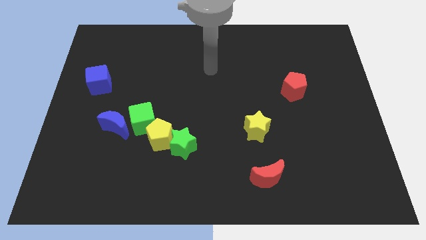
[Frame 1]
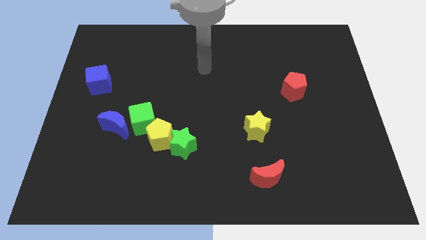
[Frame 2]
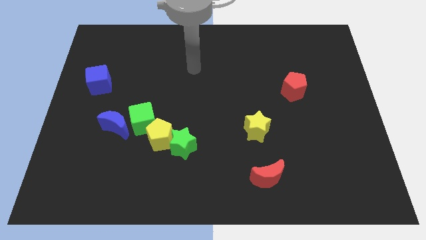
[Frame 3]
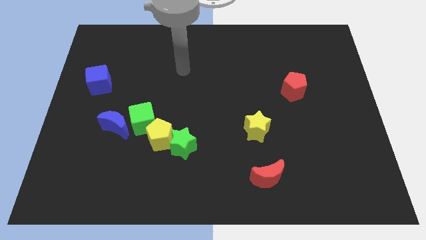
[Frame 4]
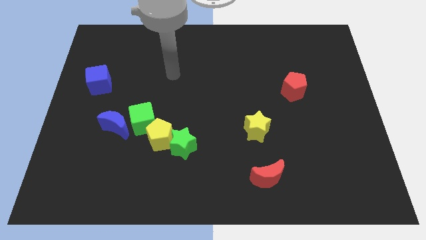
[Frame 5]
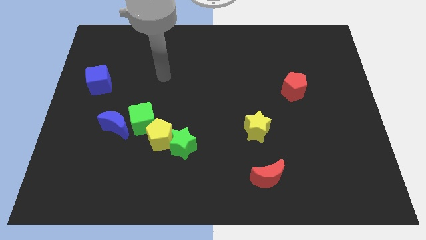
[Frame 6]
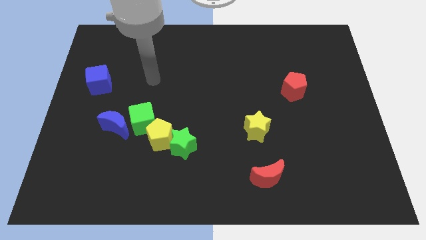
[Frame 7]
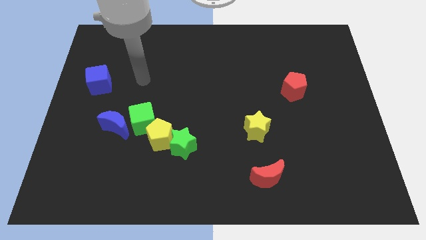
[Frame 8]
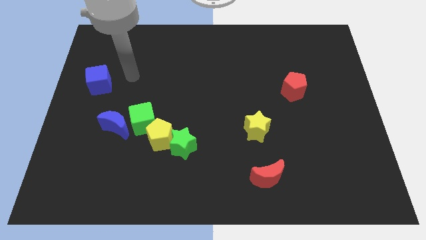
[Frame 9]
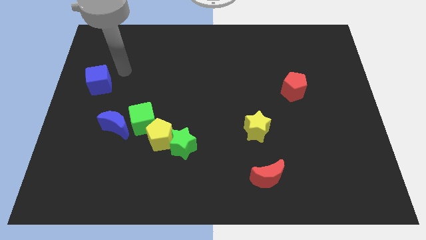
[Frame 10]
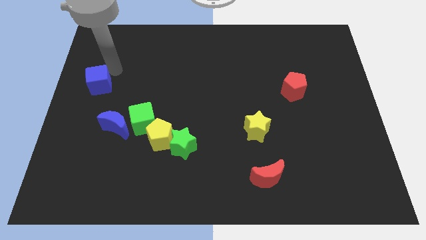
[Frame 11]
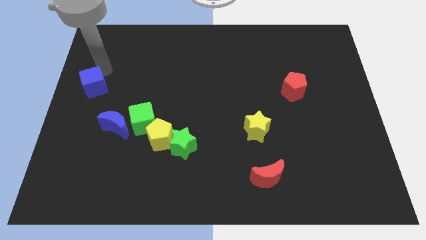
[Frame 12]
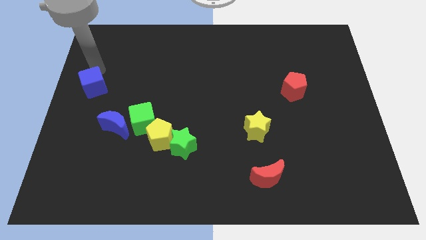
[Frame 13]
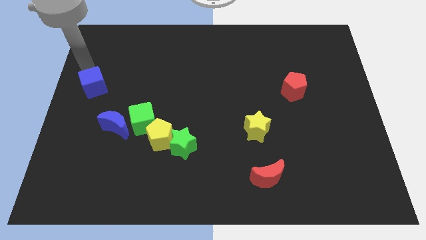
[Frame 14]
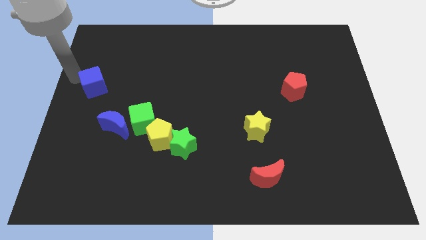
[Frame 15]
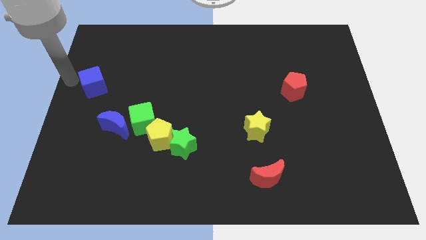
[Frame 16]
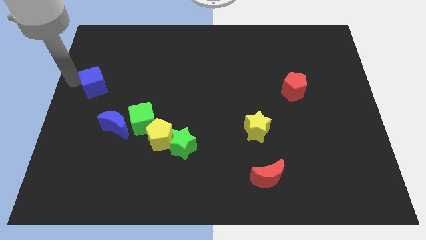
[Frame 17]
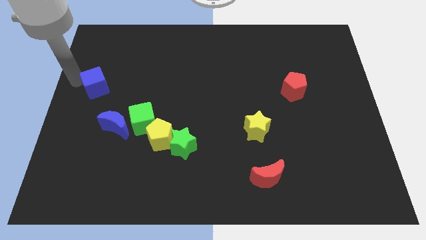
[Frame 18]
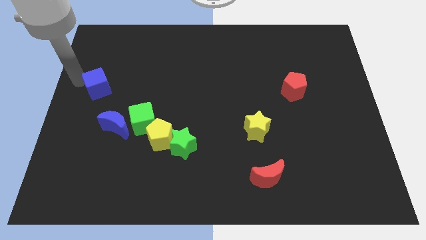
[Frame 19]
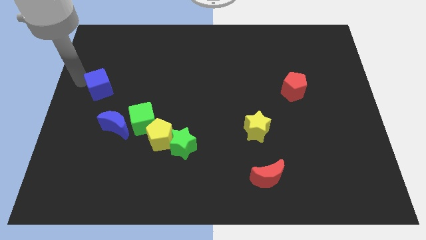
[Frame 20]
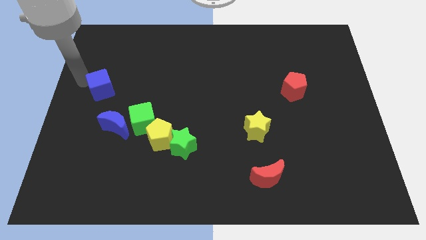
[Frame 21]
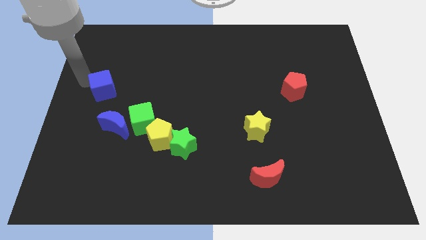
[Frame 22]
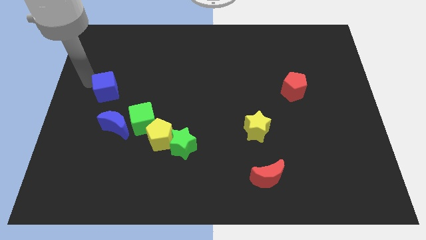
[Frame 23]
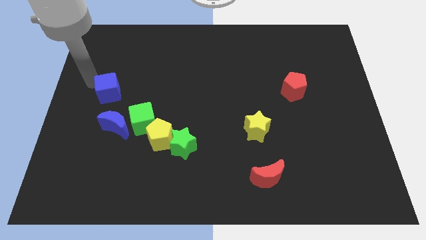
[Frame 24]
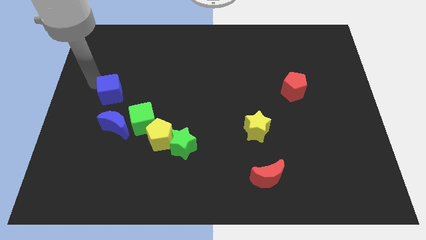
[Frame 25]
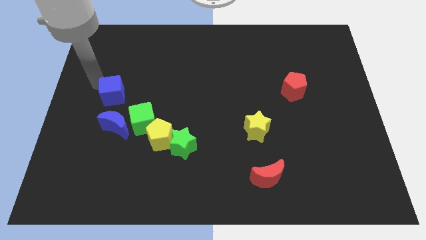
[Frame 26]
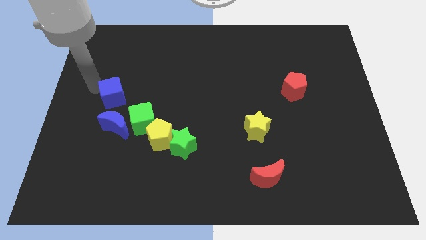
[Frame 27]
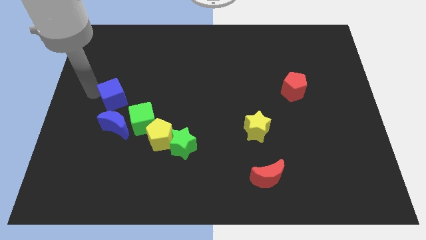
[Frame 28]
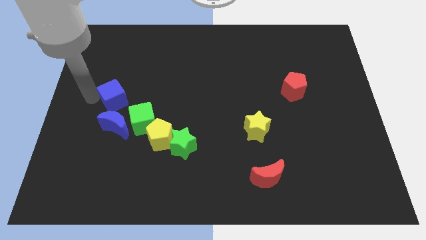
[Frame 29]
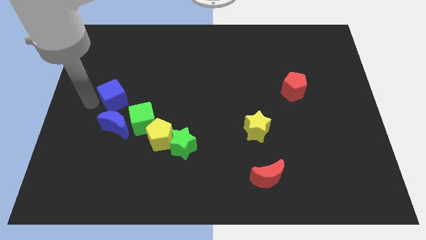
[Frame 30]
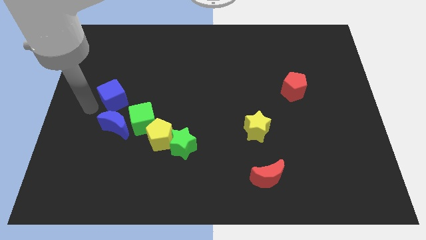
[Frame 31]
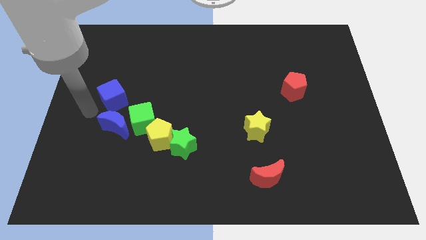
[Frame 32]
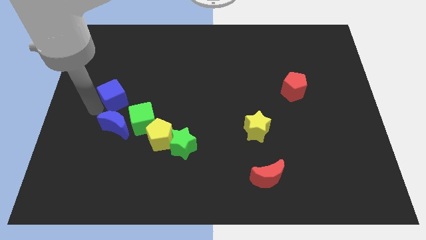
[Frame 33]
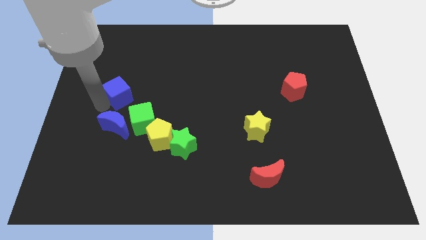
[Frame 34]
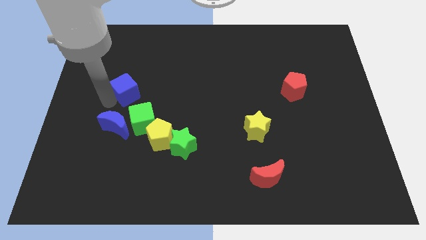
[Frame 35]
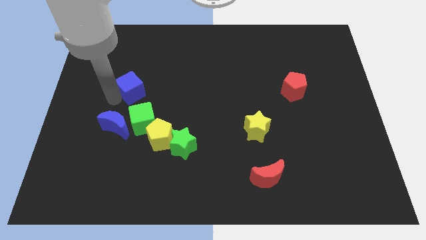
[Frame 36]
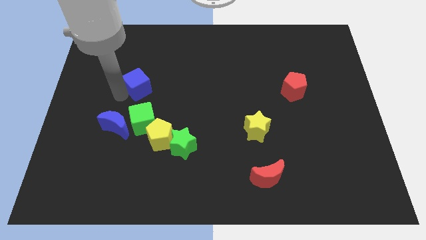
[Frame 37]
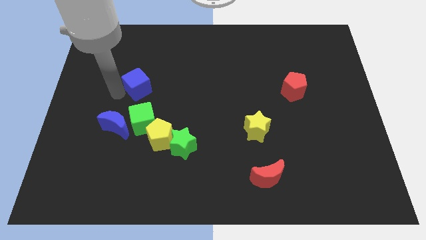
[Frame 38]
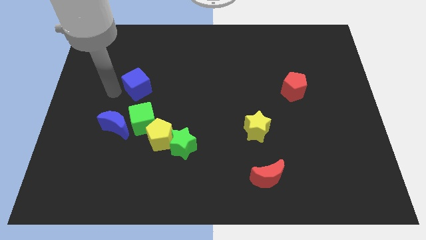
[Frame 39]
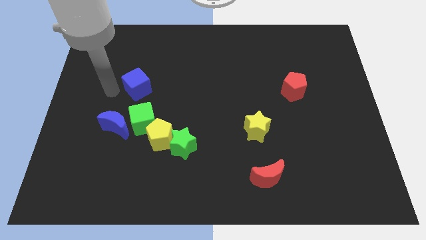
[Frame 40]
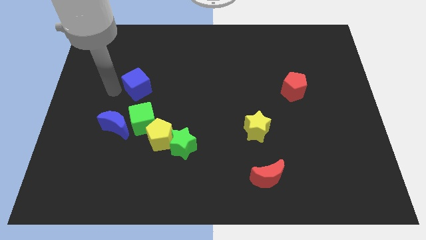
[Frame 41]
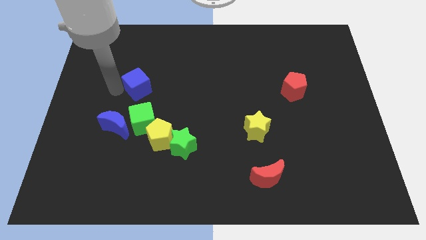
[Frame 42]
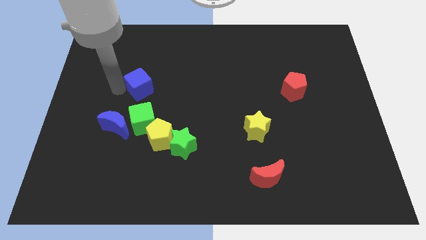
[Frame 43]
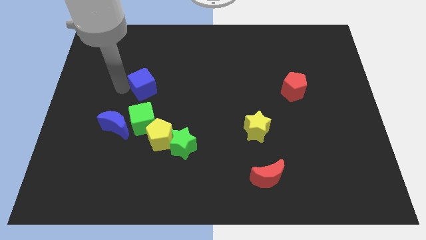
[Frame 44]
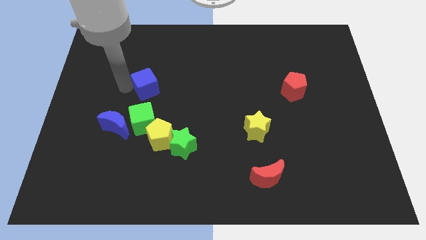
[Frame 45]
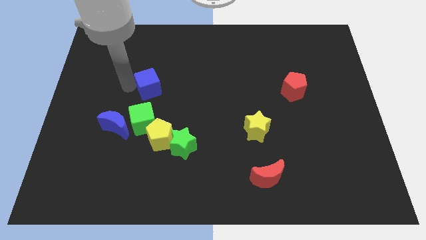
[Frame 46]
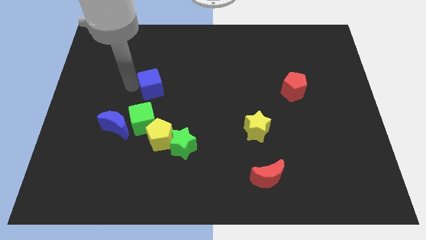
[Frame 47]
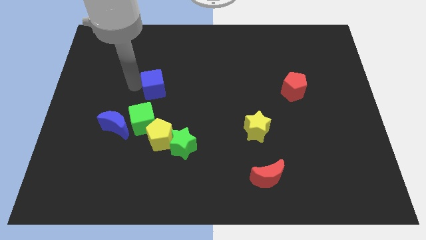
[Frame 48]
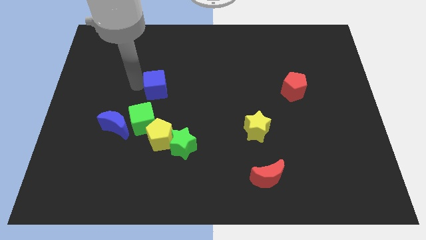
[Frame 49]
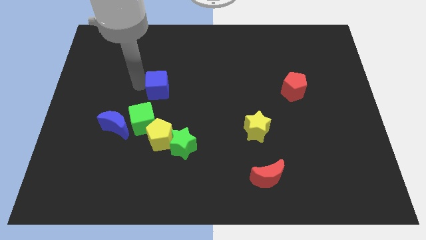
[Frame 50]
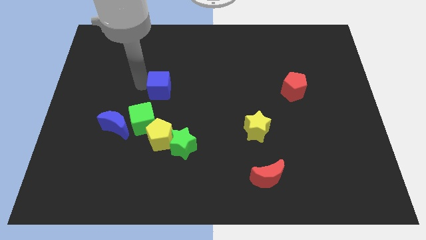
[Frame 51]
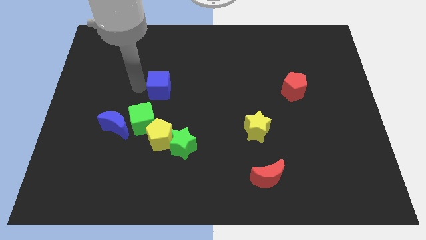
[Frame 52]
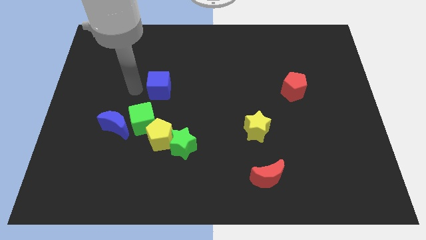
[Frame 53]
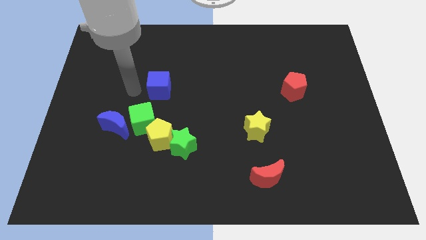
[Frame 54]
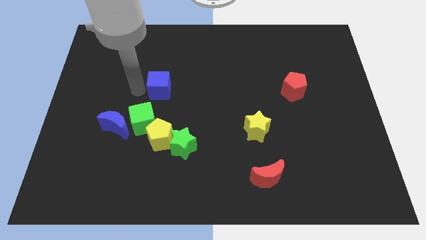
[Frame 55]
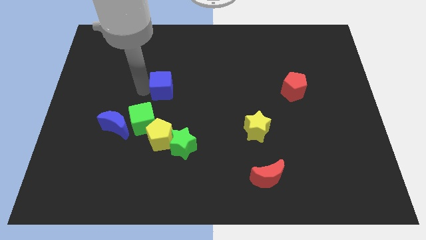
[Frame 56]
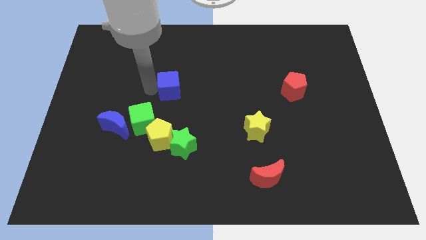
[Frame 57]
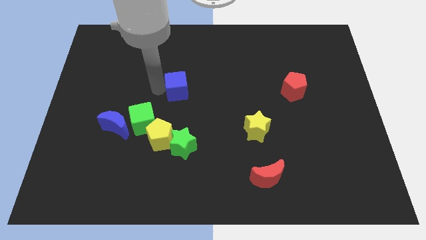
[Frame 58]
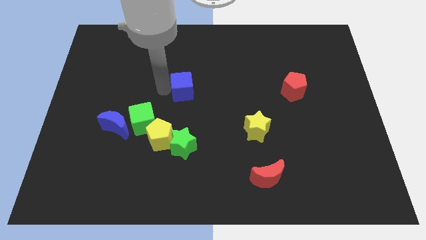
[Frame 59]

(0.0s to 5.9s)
move the blue cube right

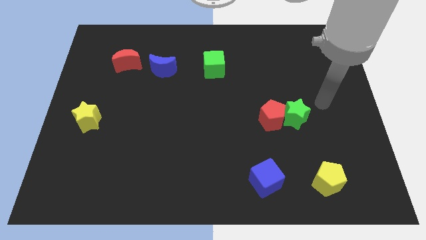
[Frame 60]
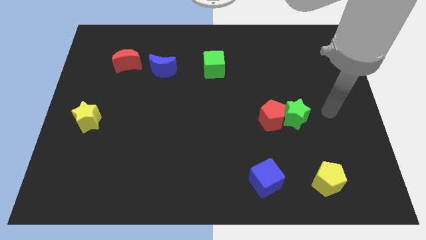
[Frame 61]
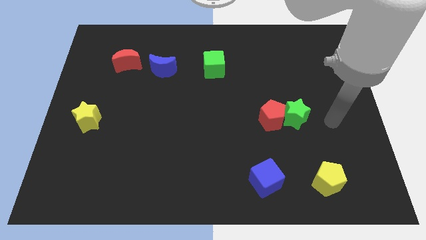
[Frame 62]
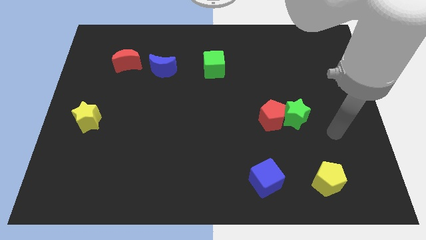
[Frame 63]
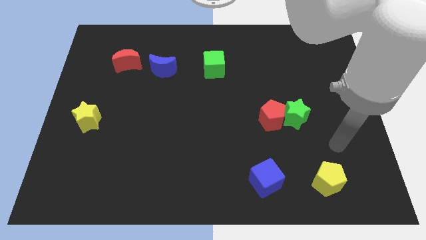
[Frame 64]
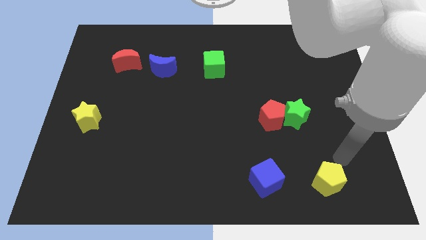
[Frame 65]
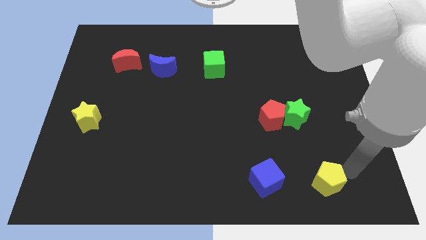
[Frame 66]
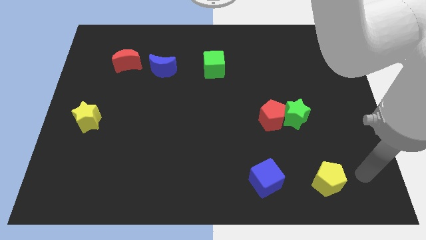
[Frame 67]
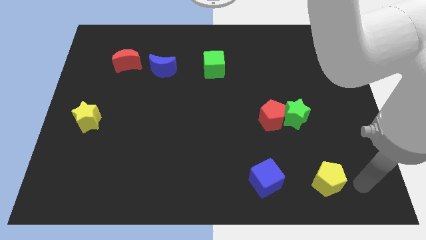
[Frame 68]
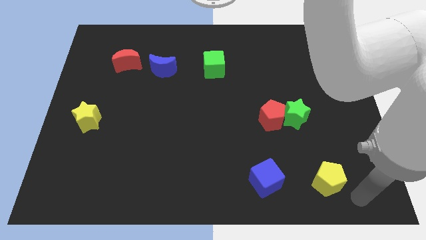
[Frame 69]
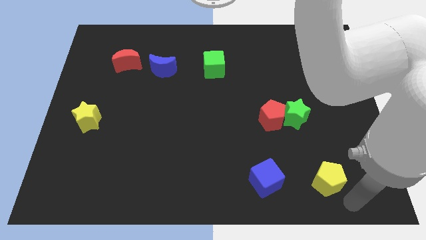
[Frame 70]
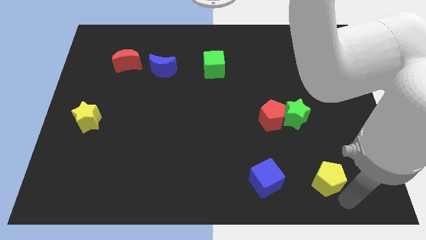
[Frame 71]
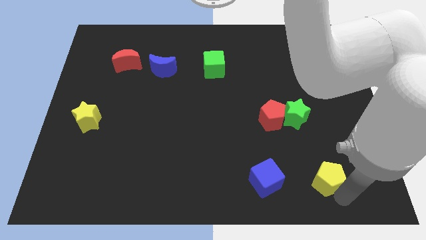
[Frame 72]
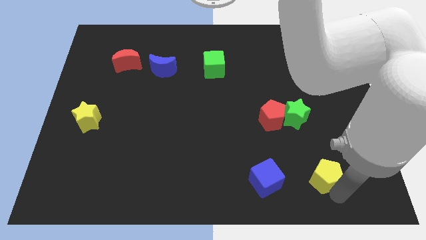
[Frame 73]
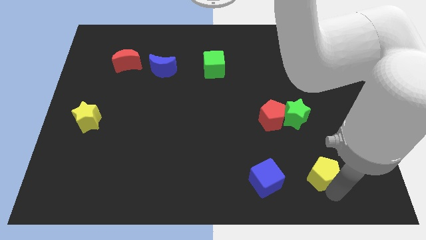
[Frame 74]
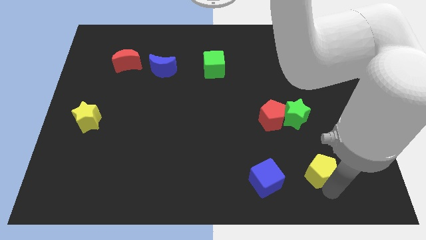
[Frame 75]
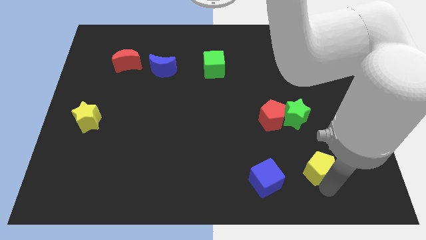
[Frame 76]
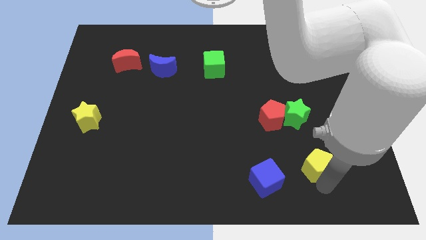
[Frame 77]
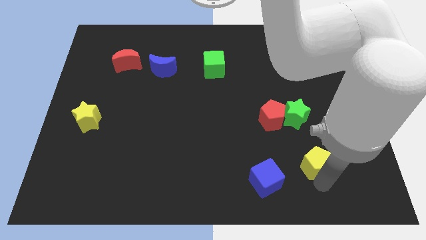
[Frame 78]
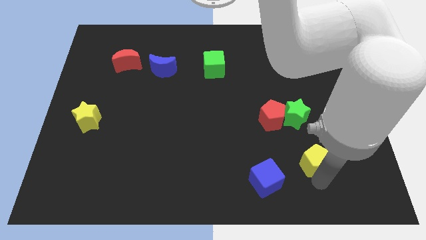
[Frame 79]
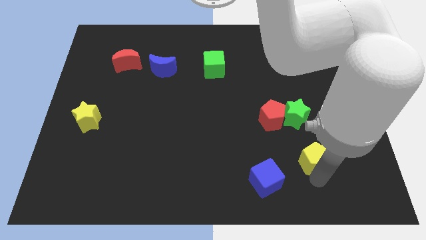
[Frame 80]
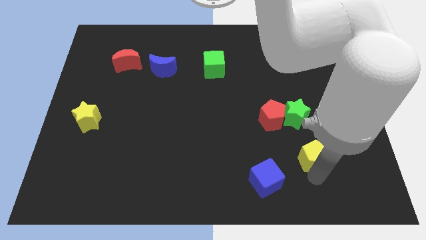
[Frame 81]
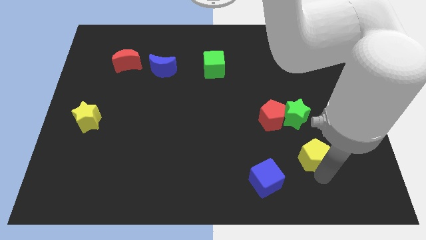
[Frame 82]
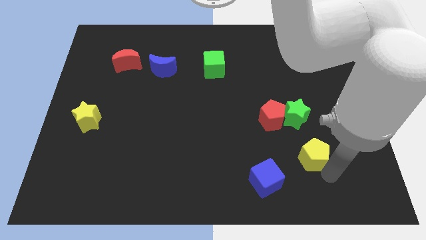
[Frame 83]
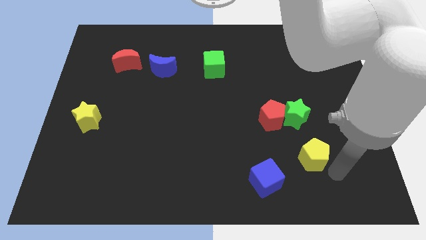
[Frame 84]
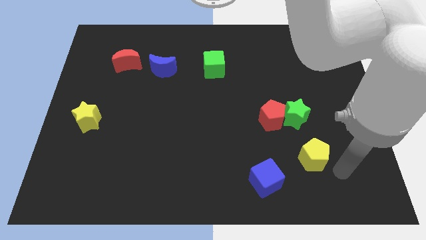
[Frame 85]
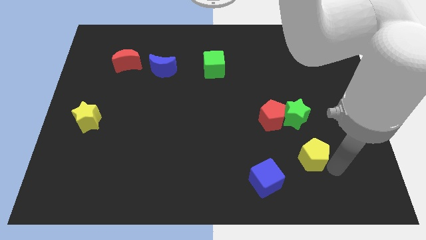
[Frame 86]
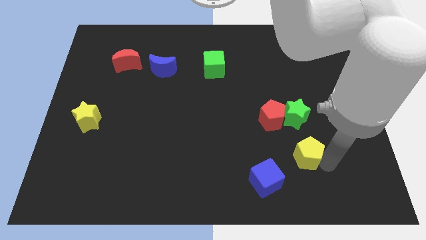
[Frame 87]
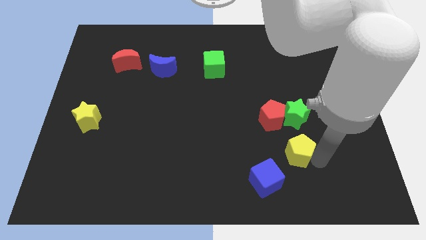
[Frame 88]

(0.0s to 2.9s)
push the yellow pentagon a little bit diagonally up and to the left
